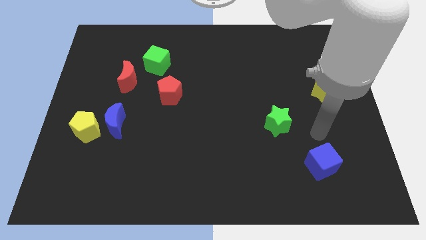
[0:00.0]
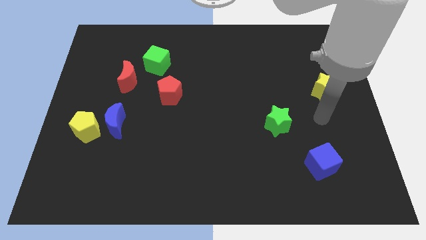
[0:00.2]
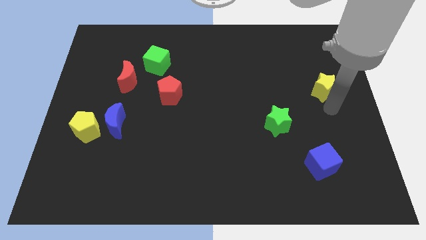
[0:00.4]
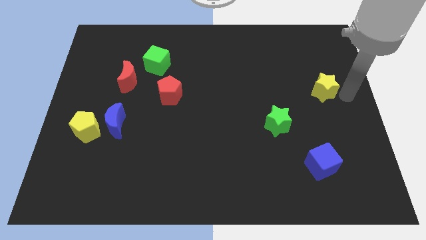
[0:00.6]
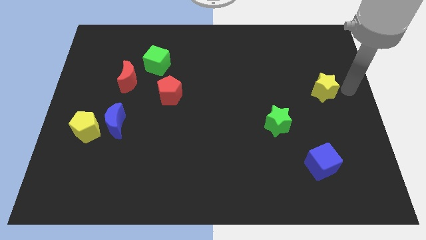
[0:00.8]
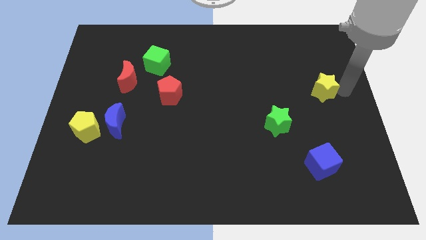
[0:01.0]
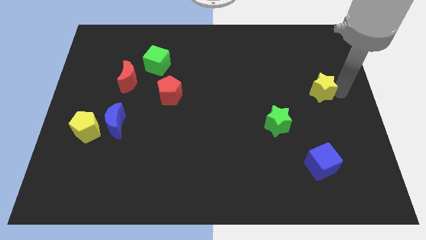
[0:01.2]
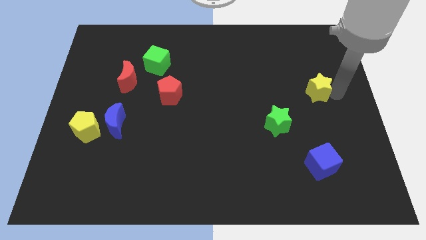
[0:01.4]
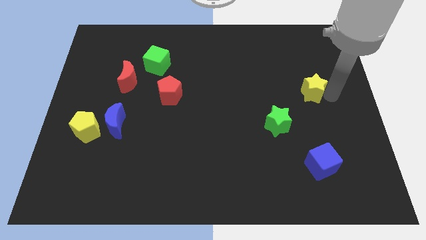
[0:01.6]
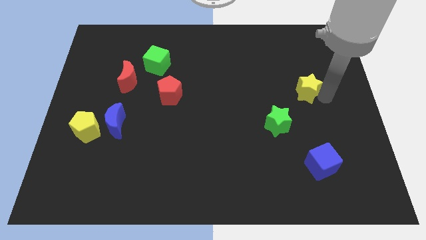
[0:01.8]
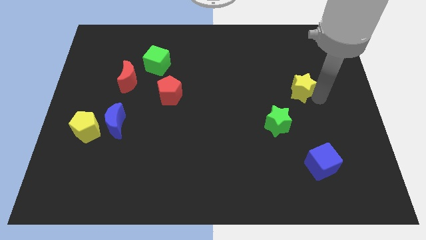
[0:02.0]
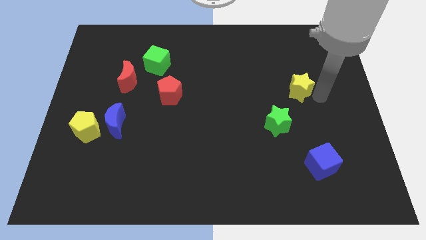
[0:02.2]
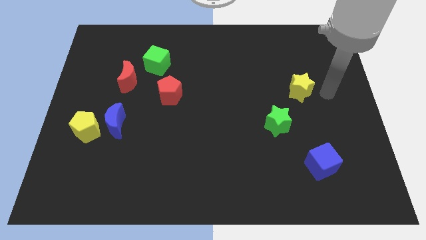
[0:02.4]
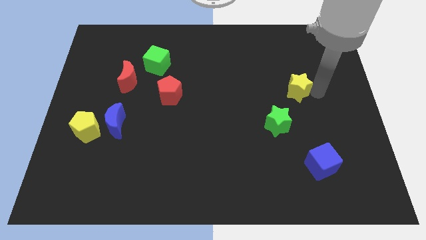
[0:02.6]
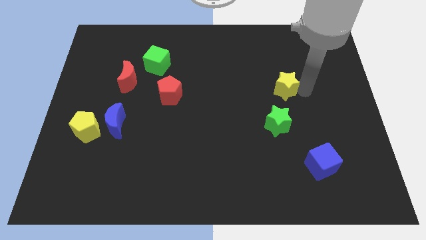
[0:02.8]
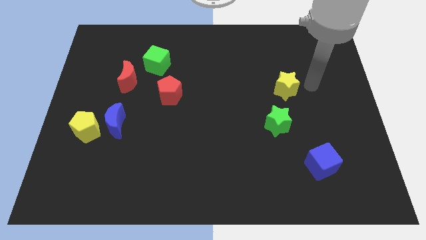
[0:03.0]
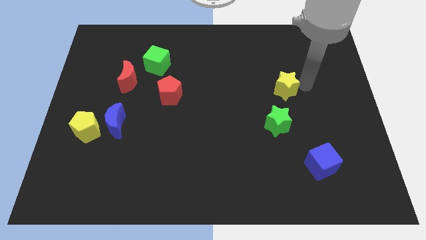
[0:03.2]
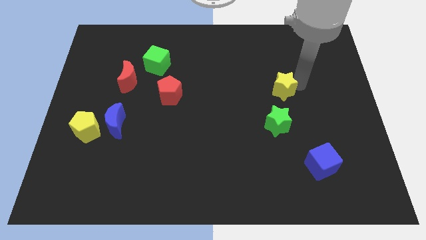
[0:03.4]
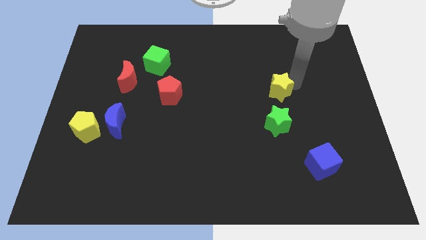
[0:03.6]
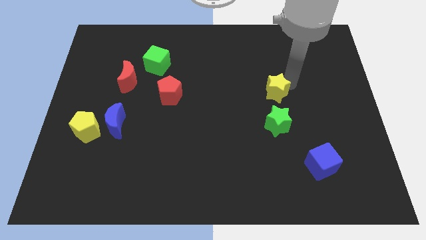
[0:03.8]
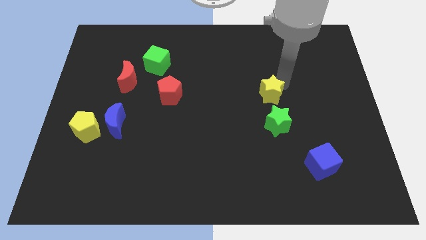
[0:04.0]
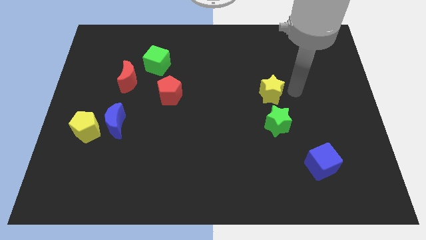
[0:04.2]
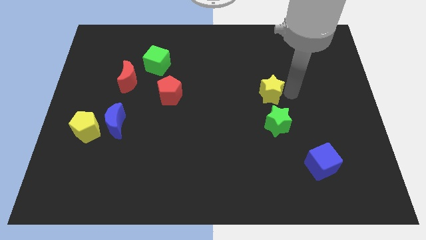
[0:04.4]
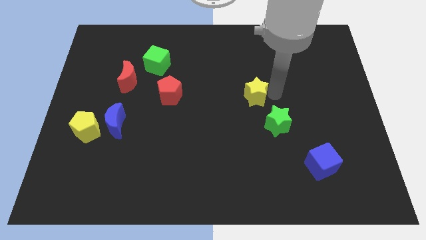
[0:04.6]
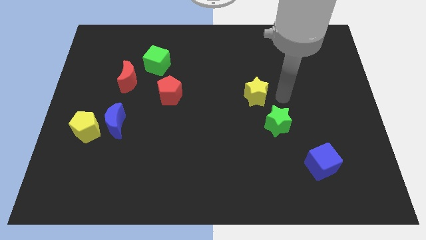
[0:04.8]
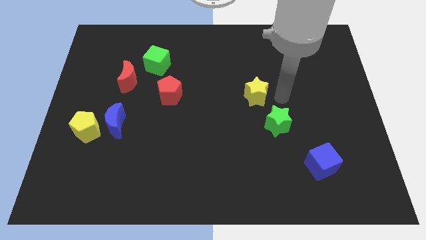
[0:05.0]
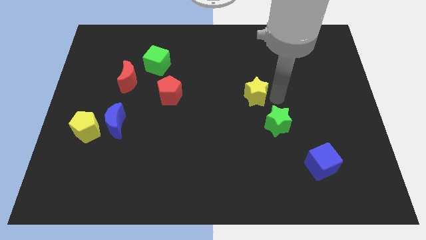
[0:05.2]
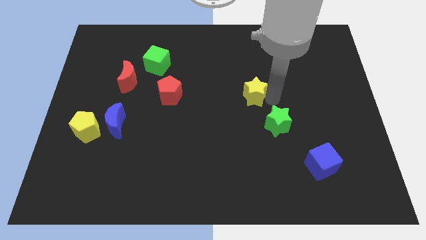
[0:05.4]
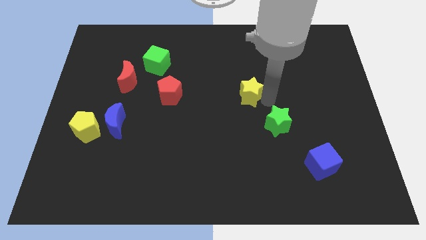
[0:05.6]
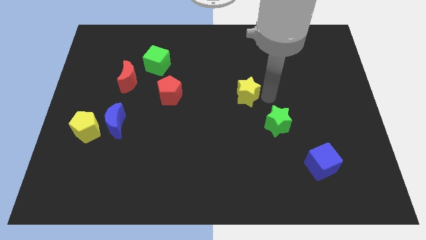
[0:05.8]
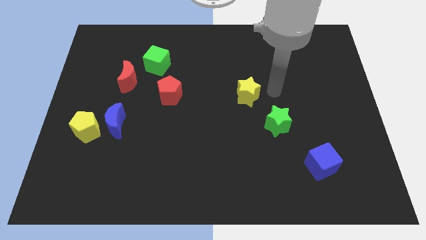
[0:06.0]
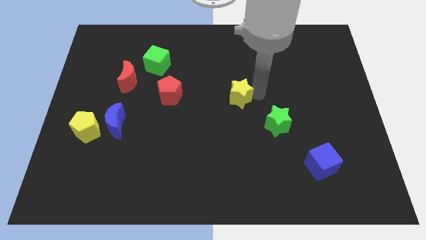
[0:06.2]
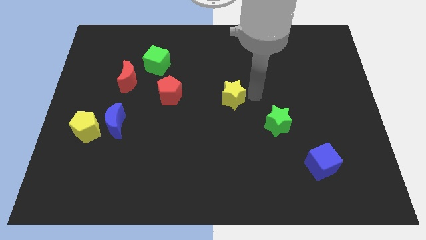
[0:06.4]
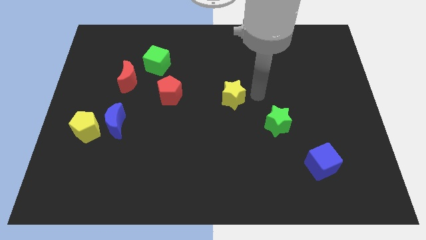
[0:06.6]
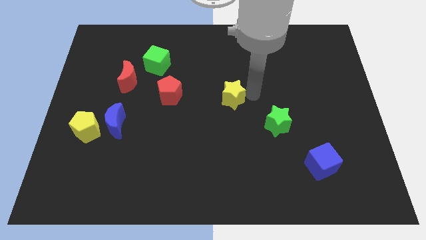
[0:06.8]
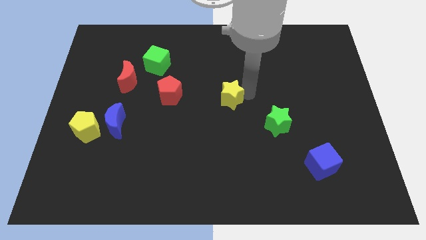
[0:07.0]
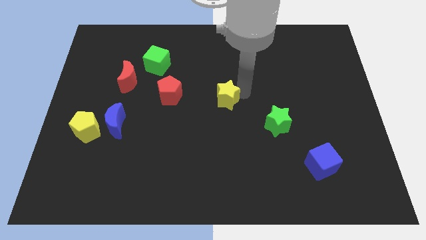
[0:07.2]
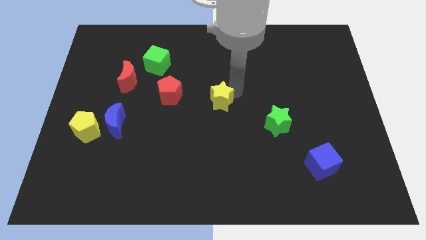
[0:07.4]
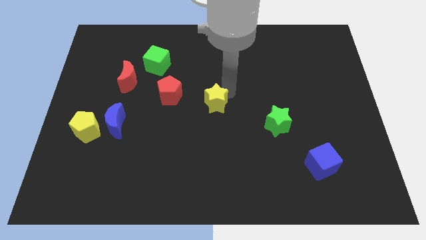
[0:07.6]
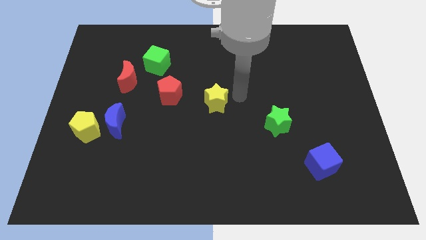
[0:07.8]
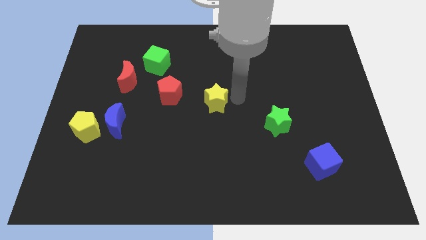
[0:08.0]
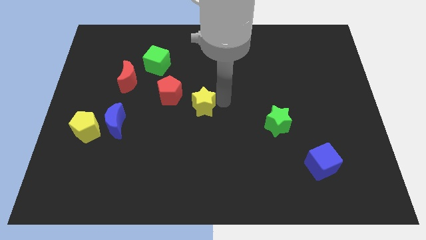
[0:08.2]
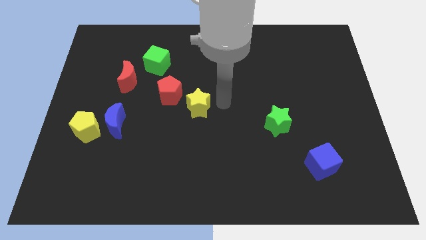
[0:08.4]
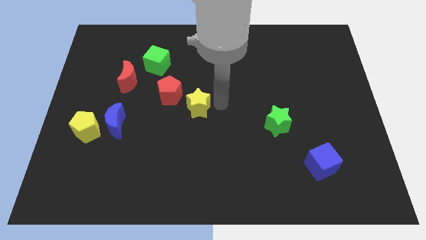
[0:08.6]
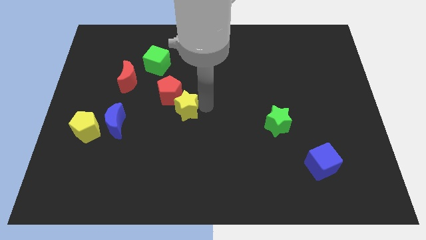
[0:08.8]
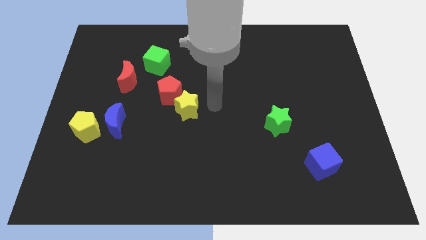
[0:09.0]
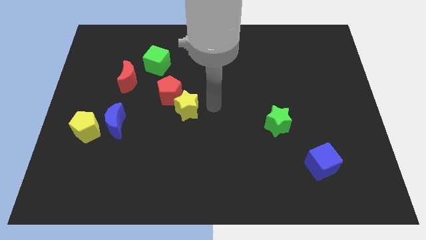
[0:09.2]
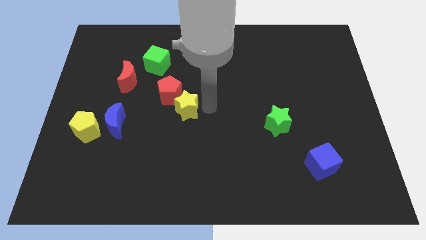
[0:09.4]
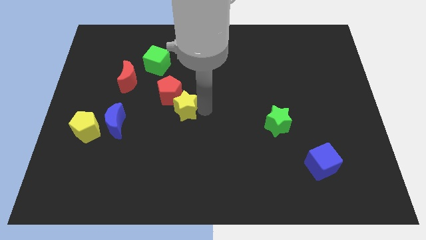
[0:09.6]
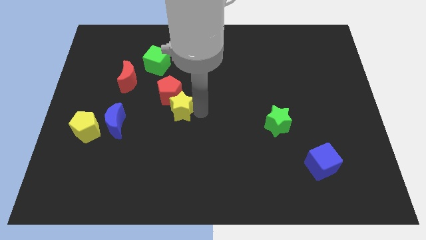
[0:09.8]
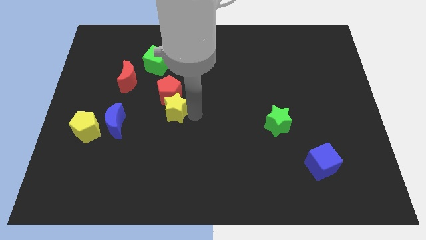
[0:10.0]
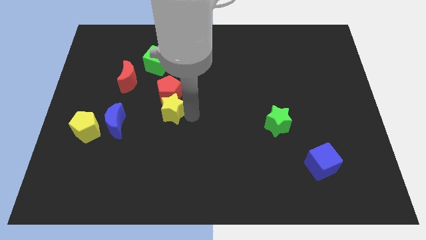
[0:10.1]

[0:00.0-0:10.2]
slide the yellow star to the bottom left of the red pentagon

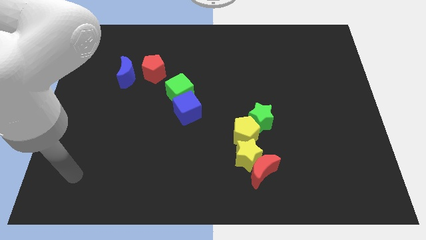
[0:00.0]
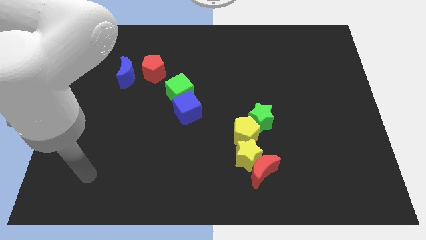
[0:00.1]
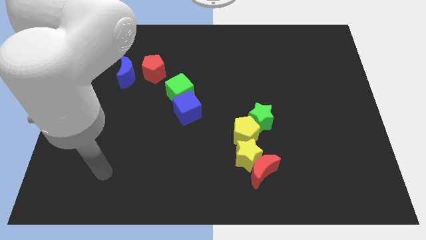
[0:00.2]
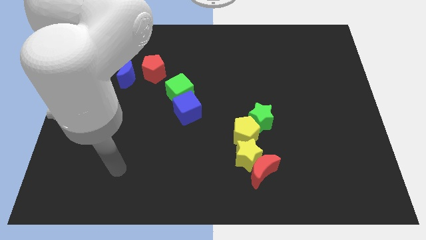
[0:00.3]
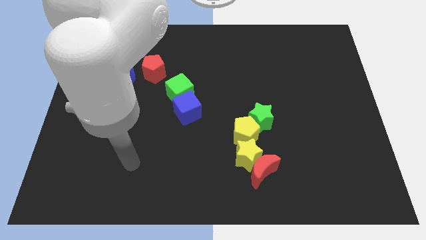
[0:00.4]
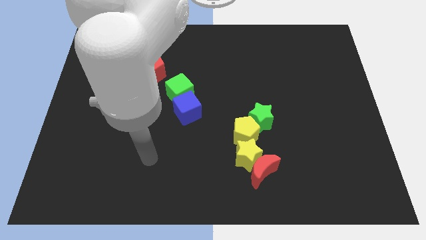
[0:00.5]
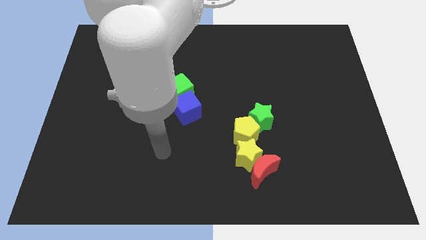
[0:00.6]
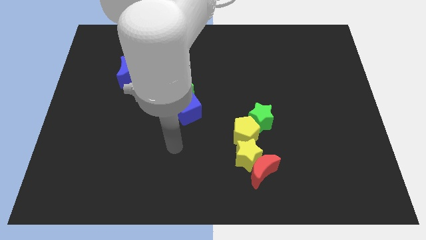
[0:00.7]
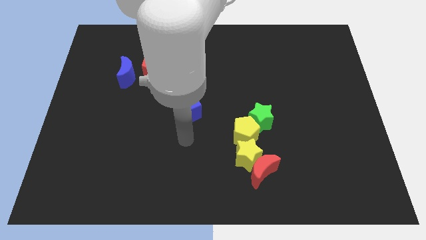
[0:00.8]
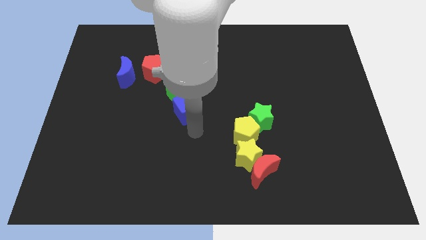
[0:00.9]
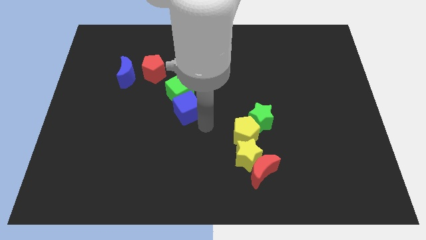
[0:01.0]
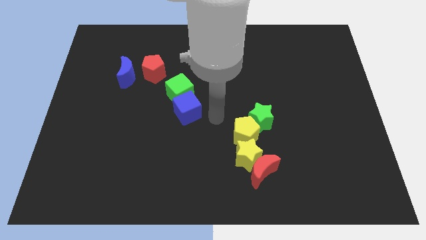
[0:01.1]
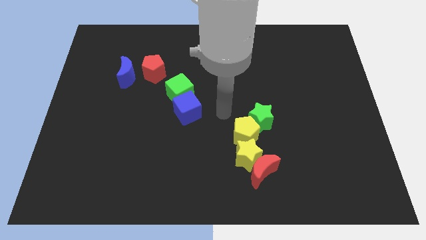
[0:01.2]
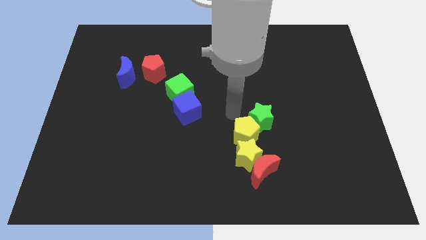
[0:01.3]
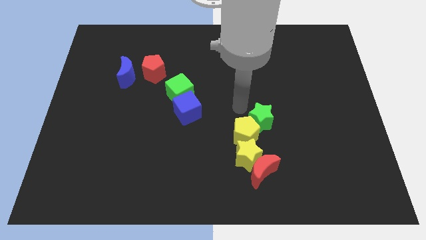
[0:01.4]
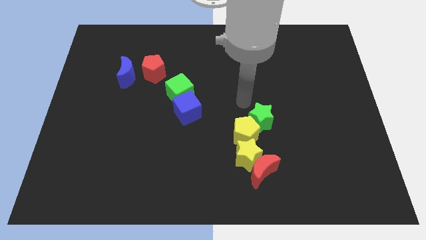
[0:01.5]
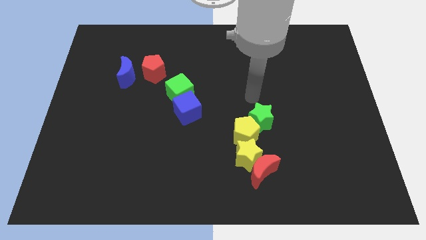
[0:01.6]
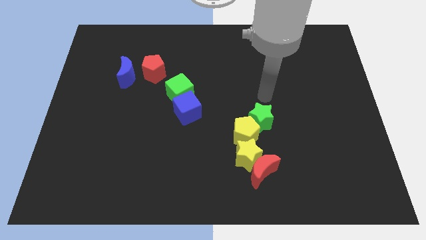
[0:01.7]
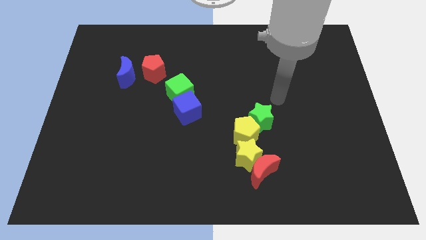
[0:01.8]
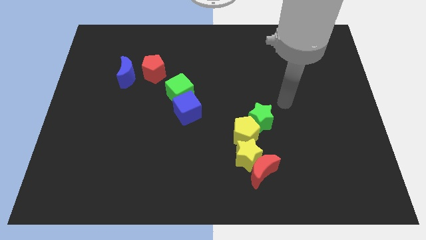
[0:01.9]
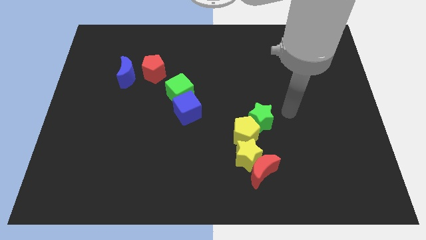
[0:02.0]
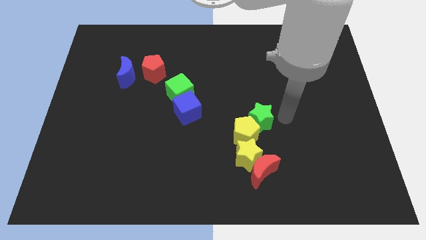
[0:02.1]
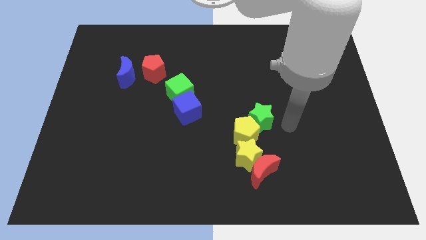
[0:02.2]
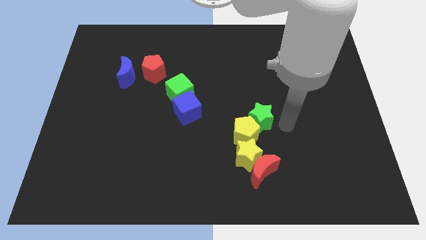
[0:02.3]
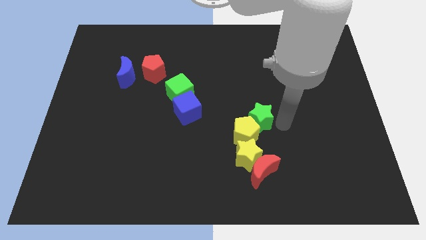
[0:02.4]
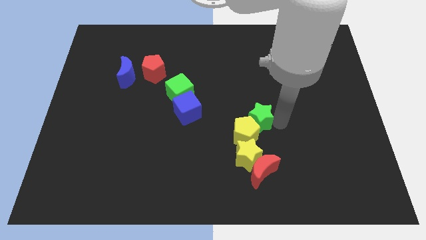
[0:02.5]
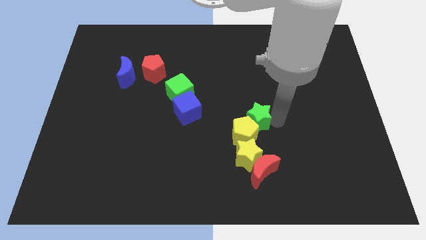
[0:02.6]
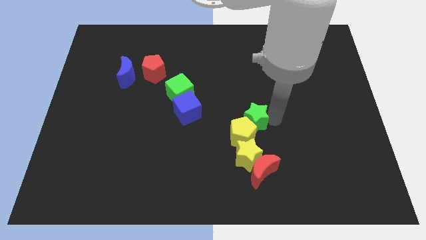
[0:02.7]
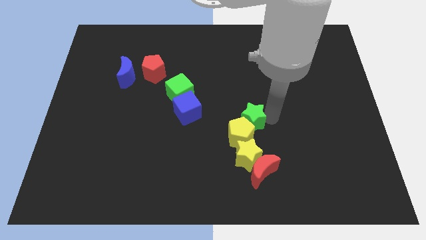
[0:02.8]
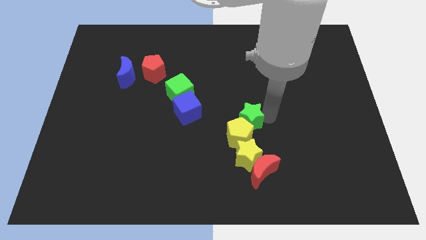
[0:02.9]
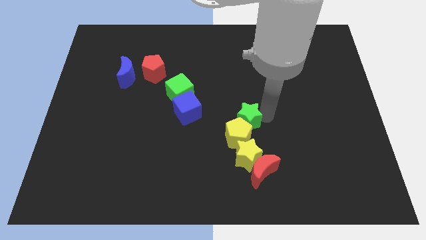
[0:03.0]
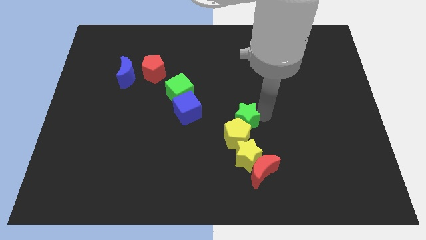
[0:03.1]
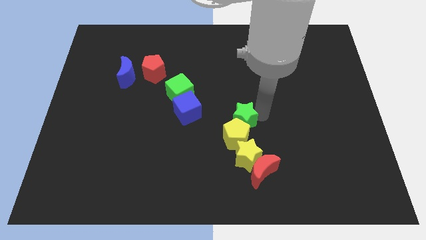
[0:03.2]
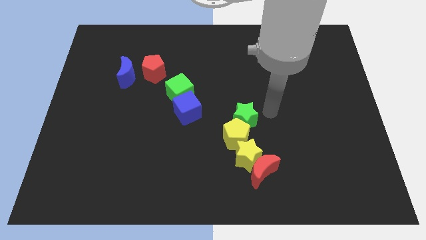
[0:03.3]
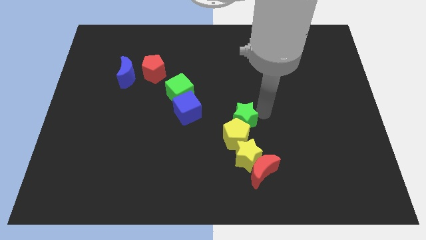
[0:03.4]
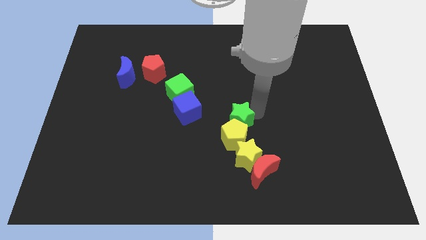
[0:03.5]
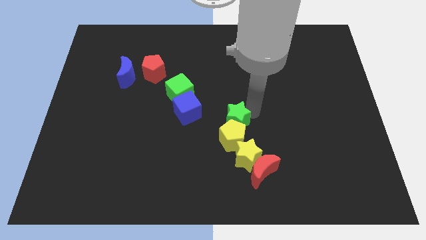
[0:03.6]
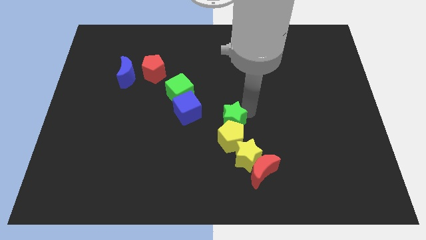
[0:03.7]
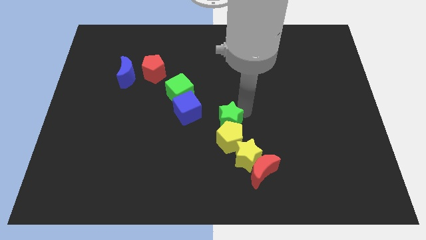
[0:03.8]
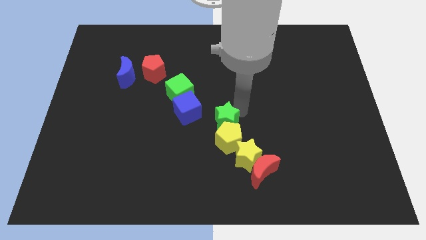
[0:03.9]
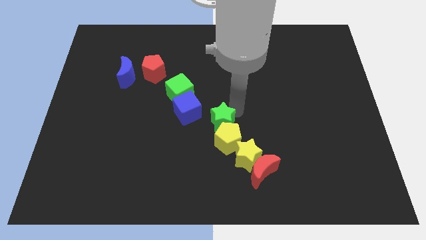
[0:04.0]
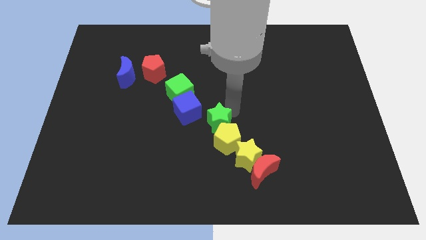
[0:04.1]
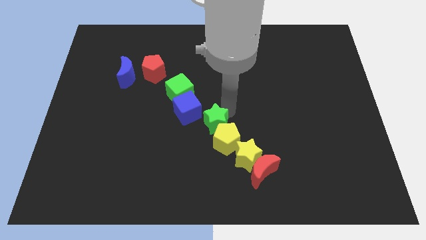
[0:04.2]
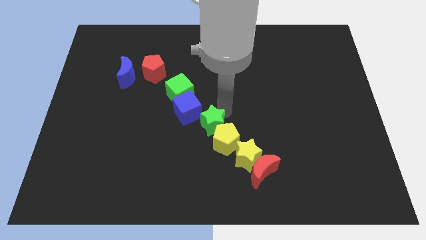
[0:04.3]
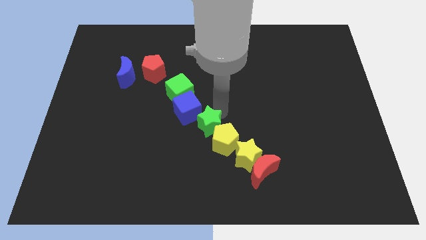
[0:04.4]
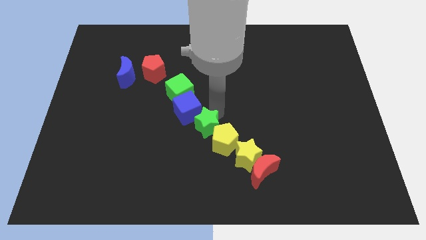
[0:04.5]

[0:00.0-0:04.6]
put the green star to the left of the yellow pentagon
